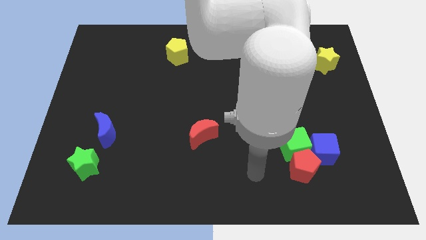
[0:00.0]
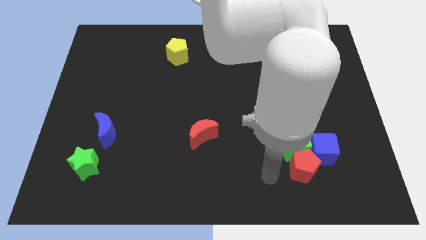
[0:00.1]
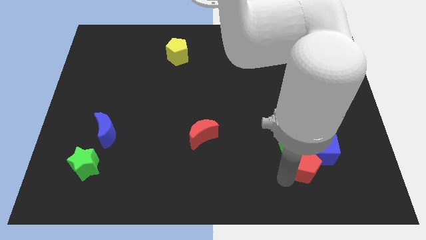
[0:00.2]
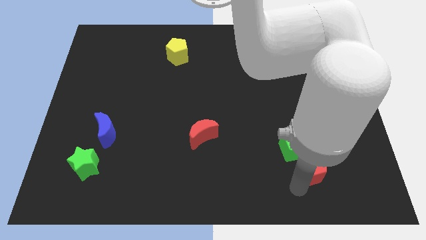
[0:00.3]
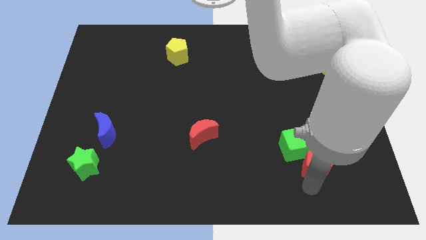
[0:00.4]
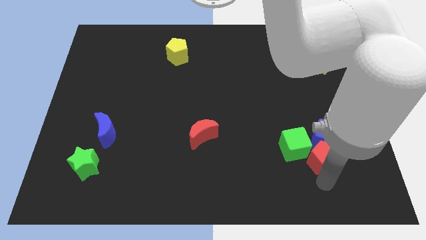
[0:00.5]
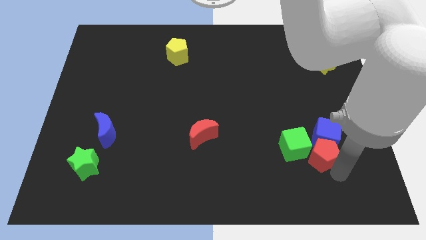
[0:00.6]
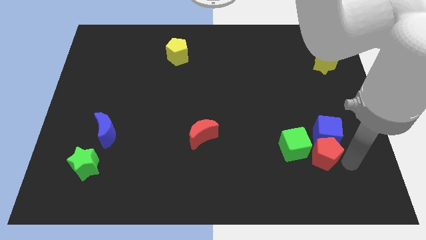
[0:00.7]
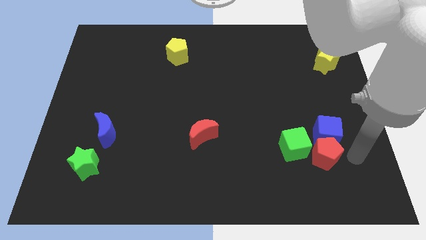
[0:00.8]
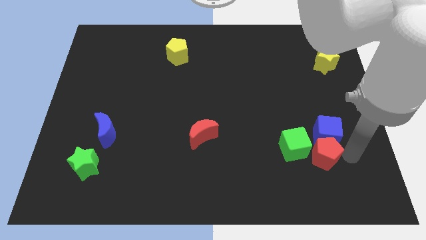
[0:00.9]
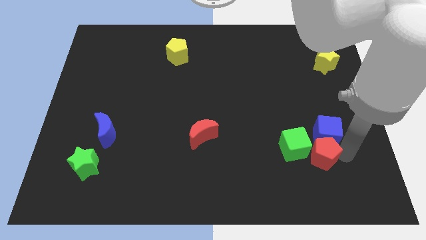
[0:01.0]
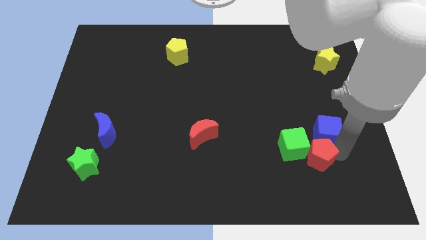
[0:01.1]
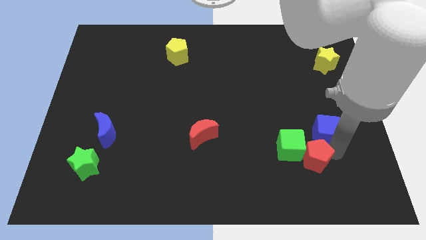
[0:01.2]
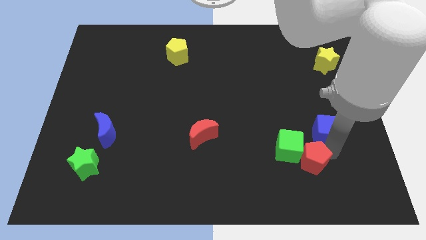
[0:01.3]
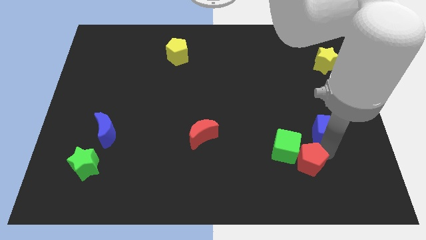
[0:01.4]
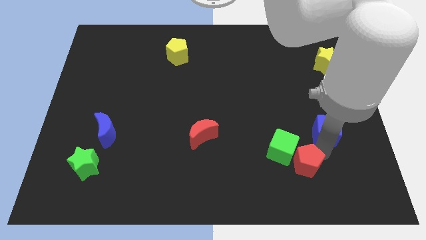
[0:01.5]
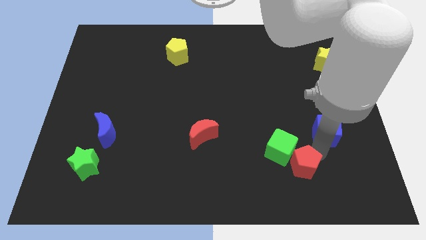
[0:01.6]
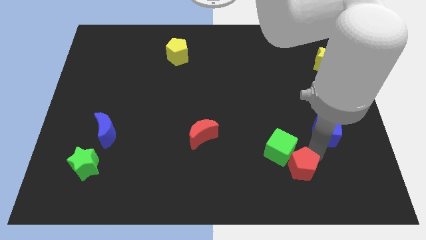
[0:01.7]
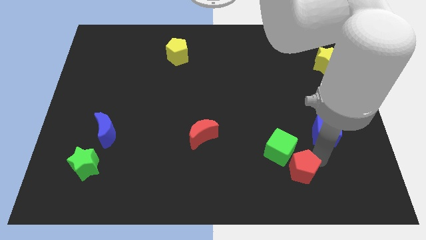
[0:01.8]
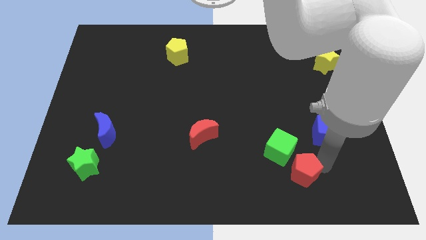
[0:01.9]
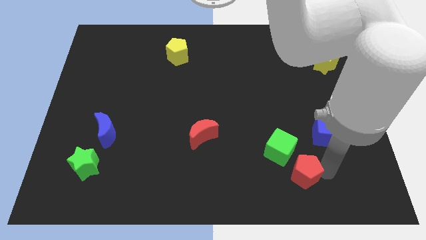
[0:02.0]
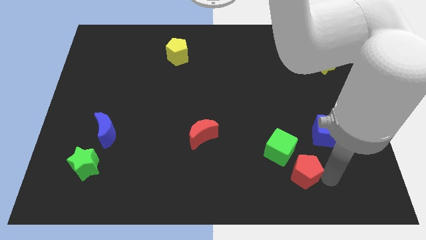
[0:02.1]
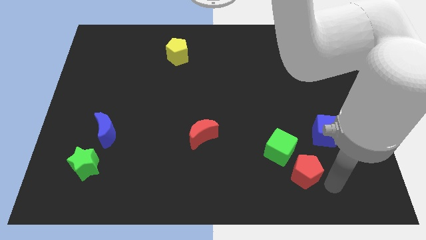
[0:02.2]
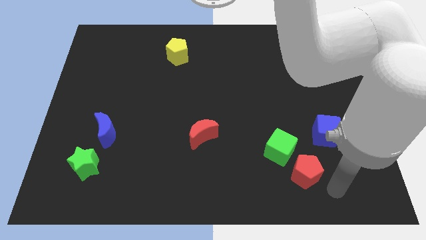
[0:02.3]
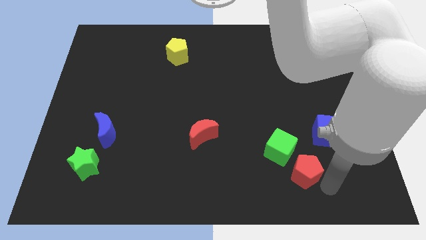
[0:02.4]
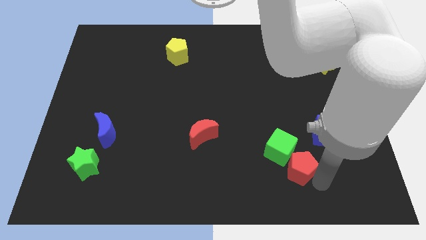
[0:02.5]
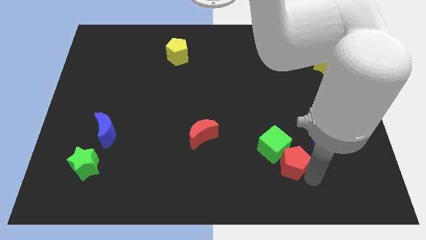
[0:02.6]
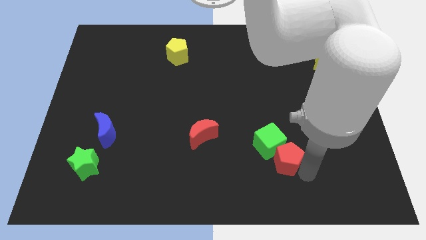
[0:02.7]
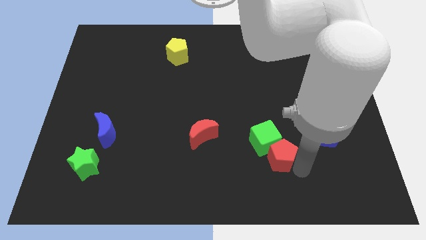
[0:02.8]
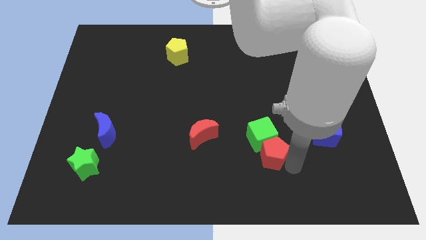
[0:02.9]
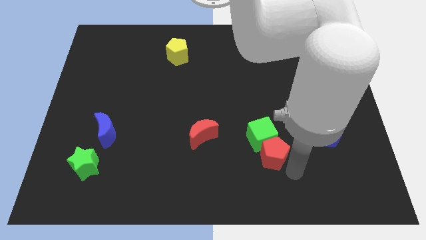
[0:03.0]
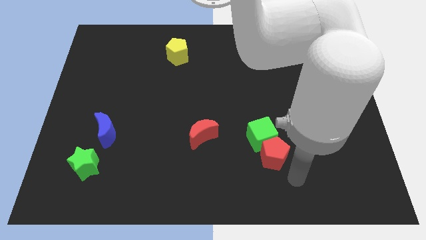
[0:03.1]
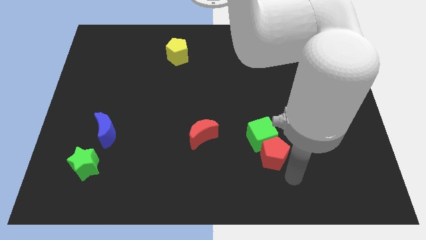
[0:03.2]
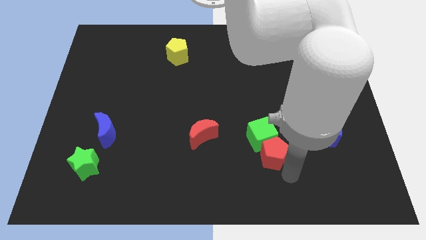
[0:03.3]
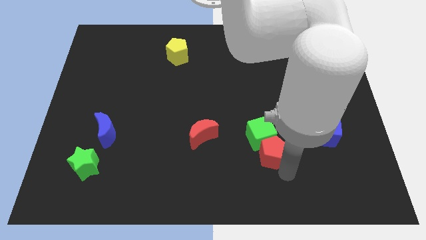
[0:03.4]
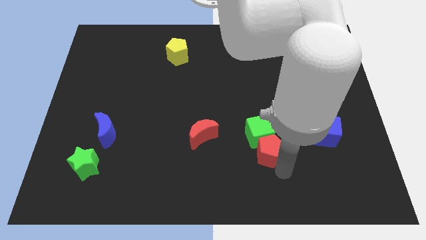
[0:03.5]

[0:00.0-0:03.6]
slightly push the red pentagon diagonally up and left
